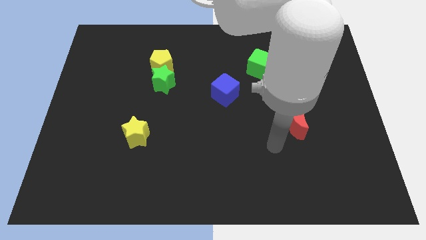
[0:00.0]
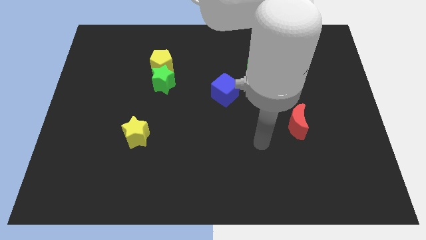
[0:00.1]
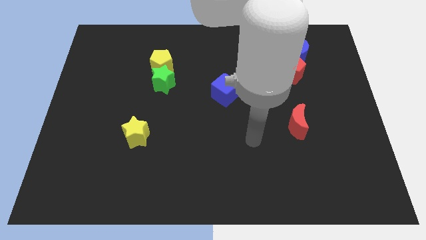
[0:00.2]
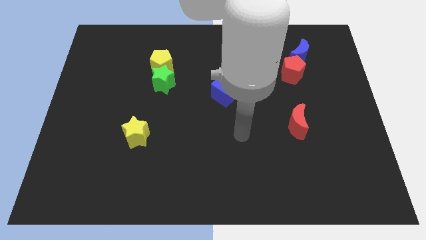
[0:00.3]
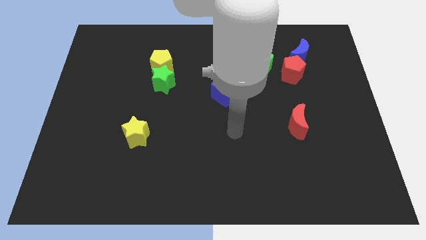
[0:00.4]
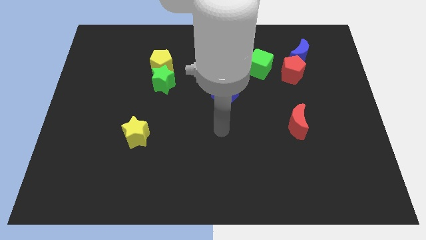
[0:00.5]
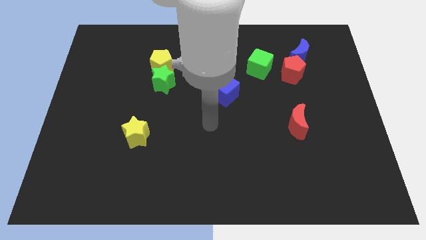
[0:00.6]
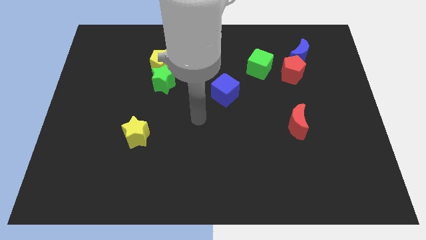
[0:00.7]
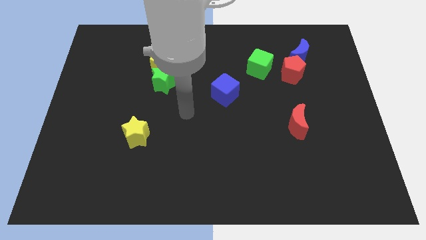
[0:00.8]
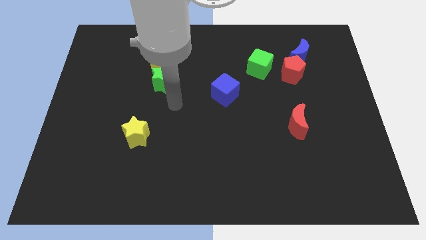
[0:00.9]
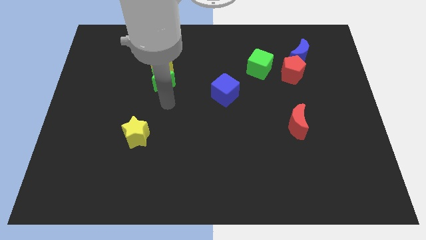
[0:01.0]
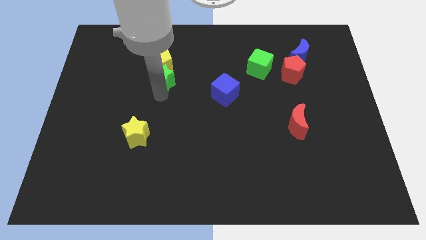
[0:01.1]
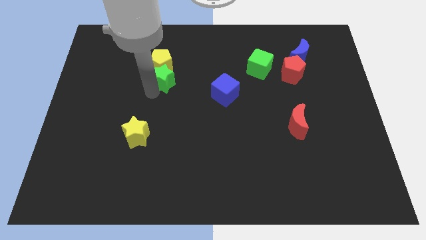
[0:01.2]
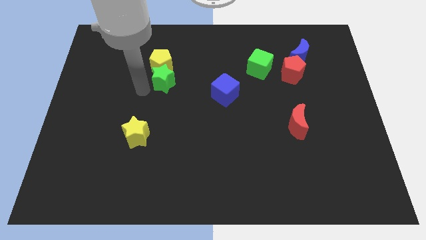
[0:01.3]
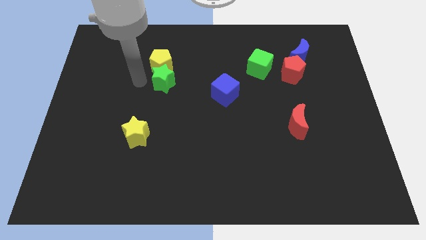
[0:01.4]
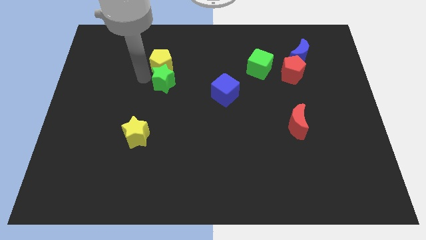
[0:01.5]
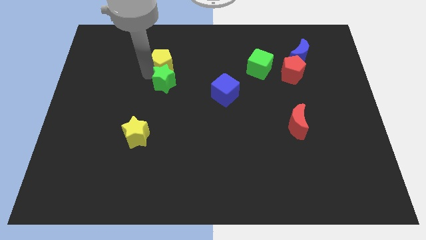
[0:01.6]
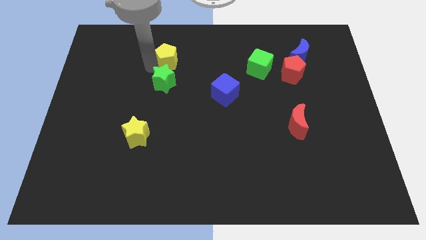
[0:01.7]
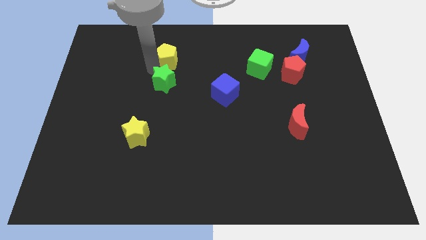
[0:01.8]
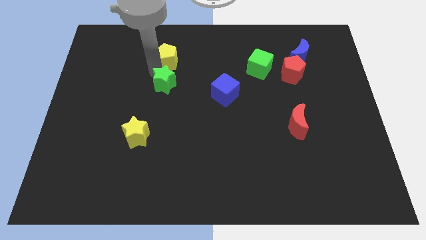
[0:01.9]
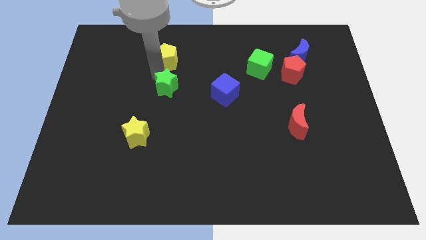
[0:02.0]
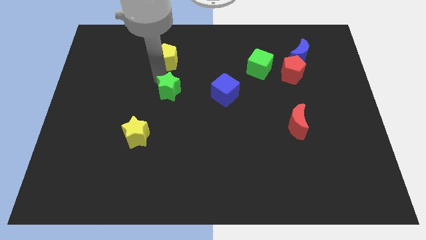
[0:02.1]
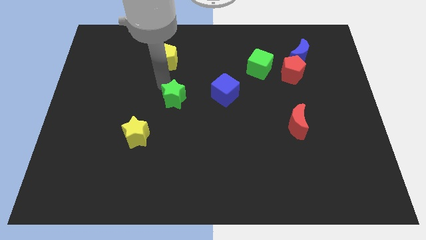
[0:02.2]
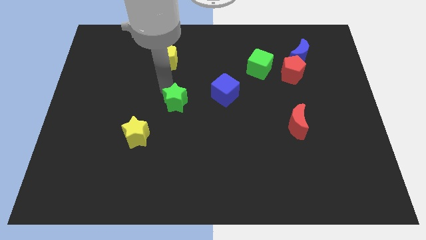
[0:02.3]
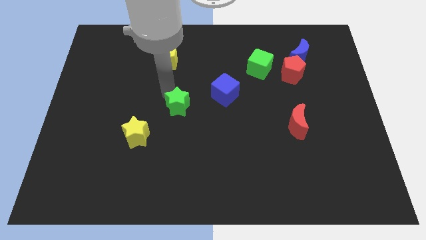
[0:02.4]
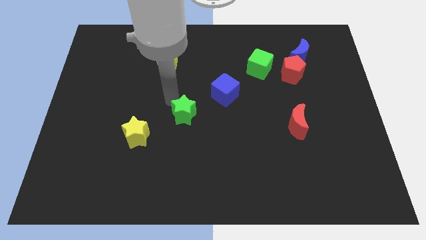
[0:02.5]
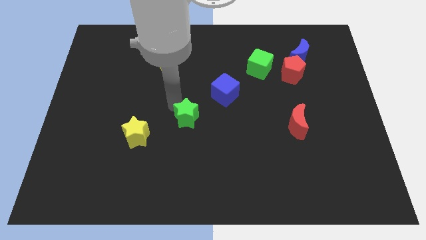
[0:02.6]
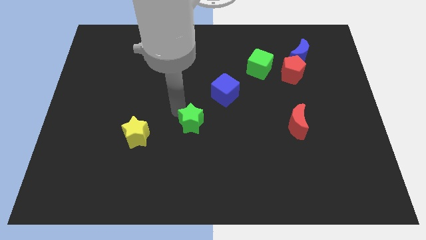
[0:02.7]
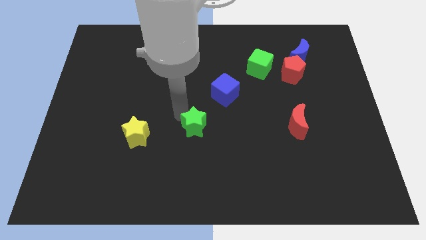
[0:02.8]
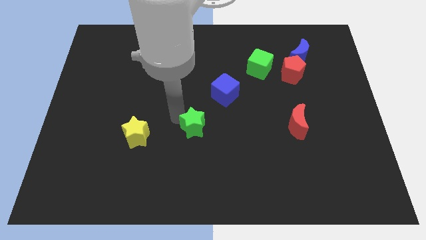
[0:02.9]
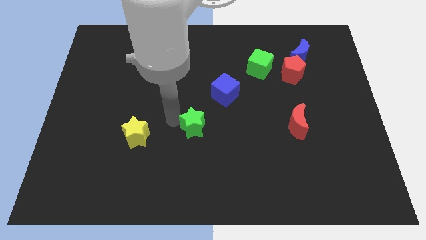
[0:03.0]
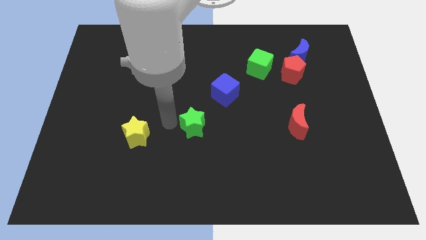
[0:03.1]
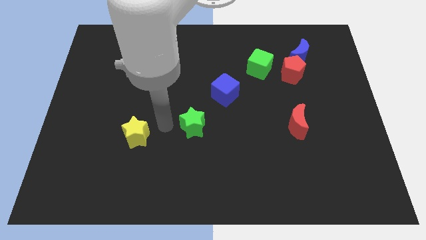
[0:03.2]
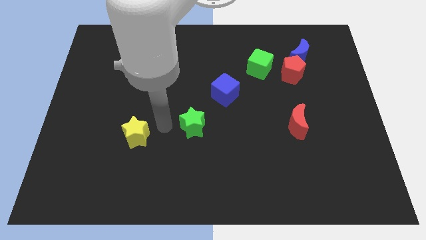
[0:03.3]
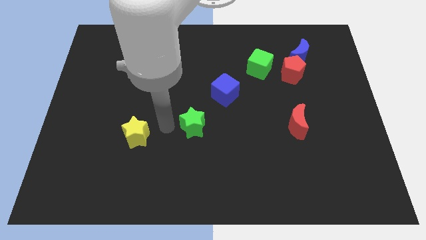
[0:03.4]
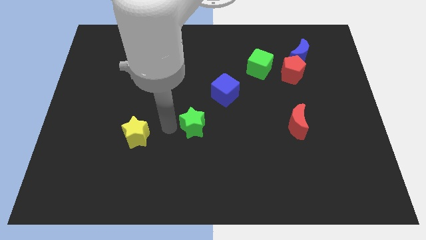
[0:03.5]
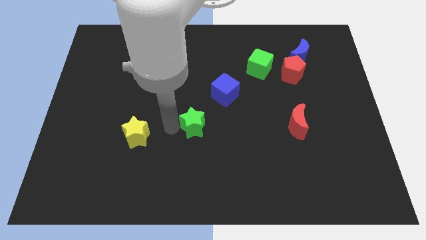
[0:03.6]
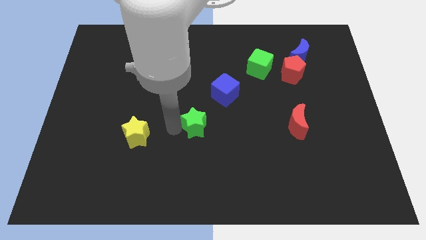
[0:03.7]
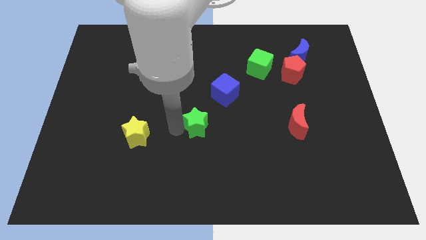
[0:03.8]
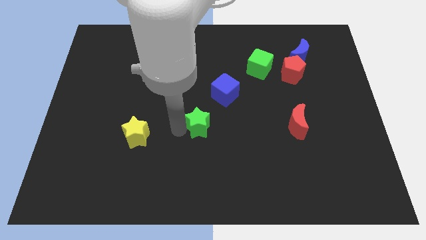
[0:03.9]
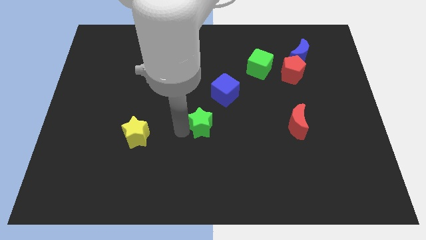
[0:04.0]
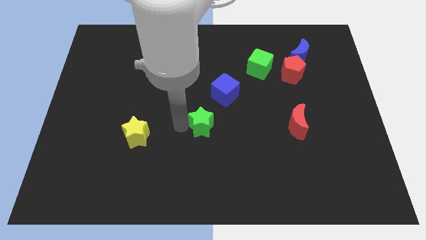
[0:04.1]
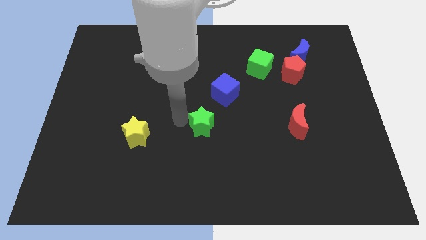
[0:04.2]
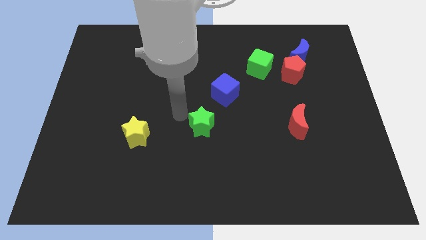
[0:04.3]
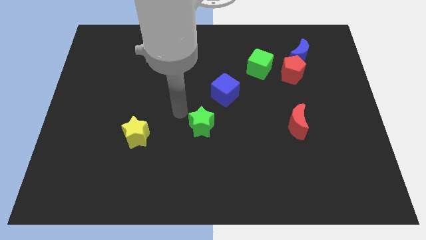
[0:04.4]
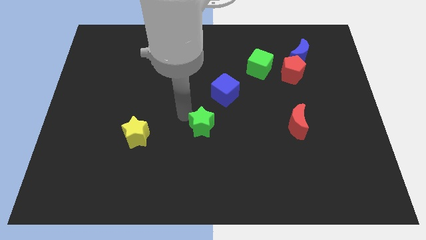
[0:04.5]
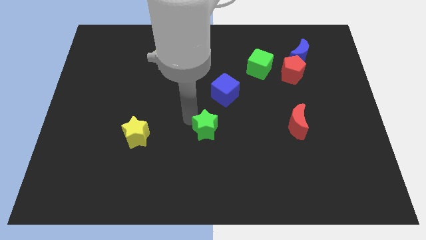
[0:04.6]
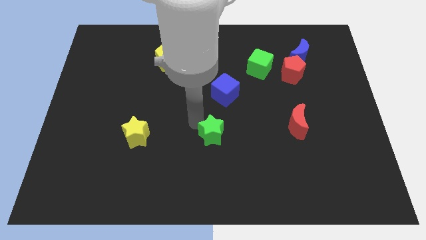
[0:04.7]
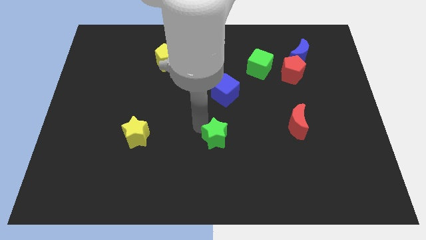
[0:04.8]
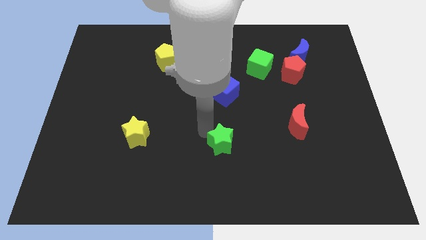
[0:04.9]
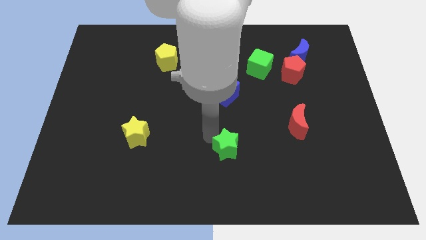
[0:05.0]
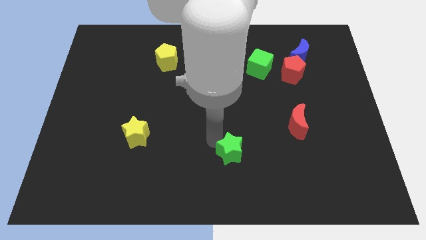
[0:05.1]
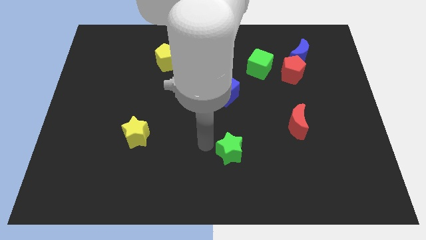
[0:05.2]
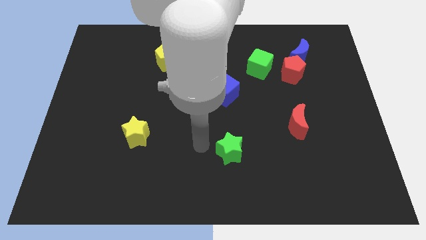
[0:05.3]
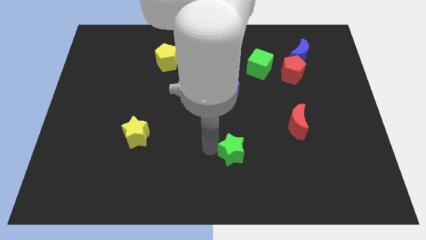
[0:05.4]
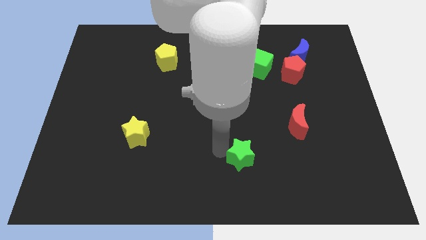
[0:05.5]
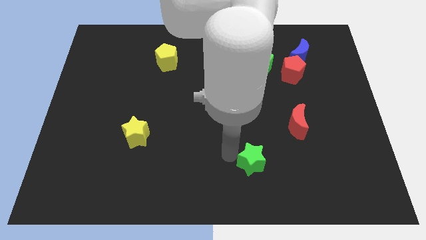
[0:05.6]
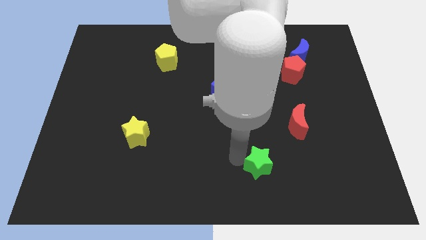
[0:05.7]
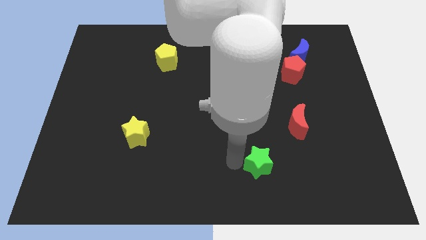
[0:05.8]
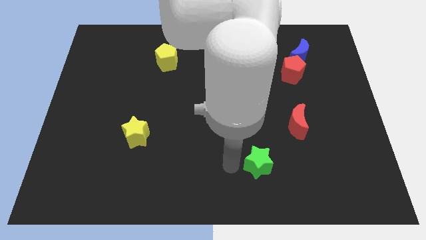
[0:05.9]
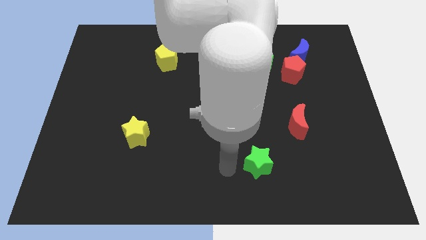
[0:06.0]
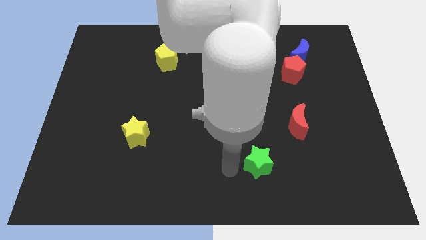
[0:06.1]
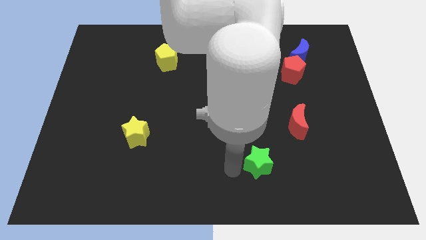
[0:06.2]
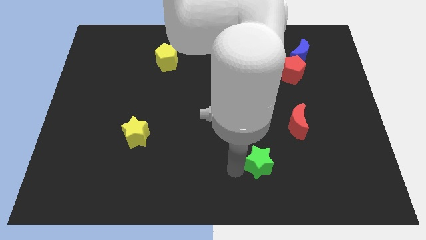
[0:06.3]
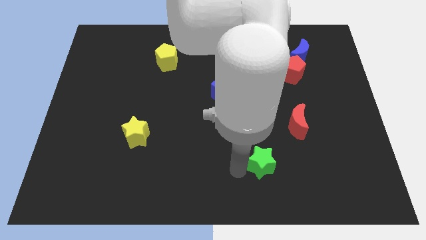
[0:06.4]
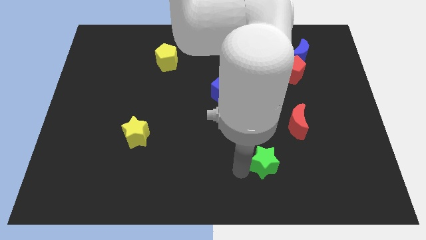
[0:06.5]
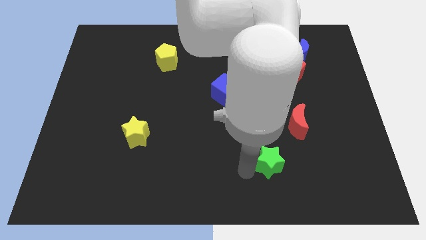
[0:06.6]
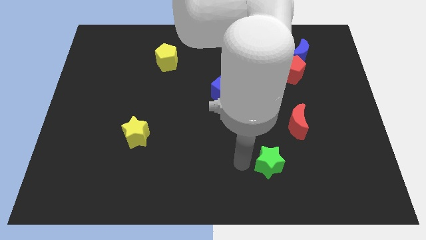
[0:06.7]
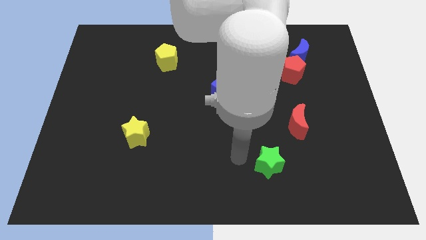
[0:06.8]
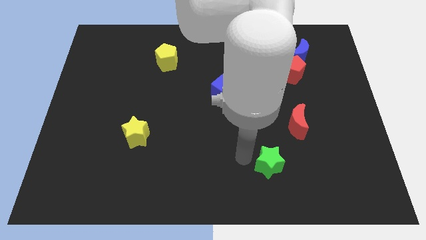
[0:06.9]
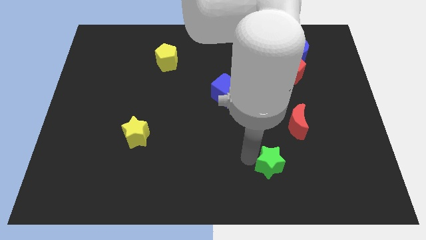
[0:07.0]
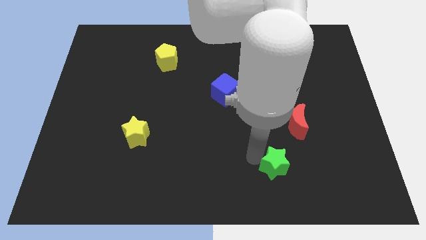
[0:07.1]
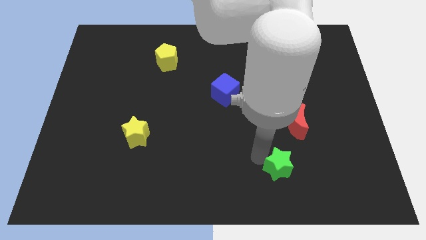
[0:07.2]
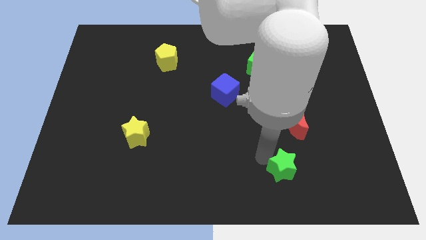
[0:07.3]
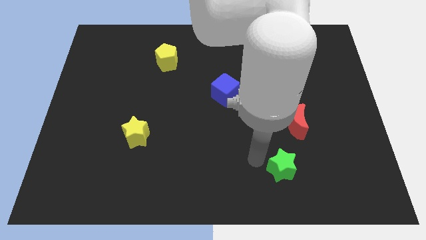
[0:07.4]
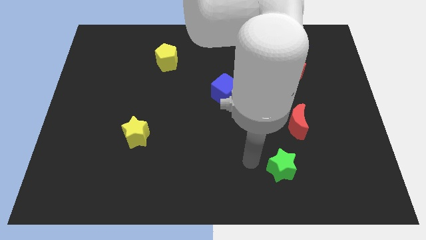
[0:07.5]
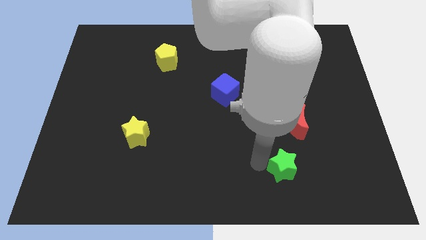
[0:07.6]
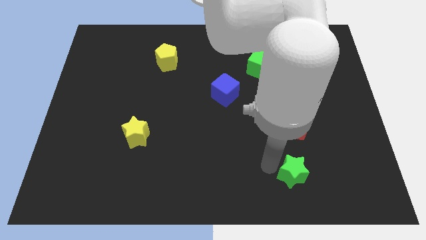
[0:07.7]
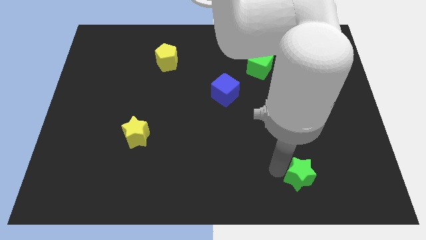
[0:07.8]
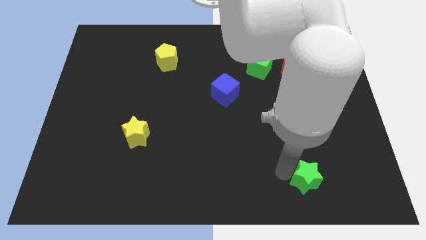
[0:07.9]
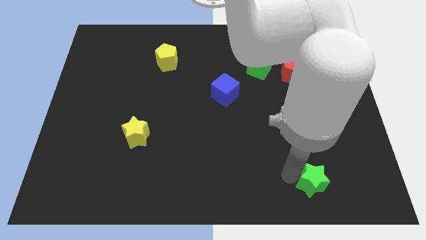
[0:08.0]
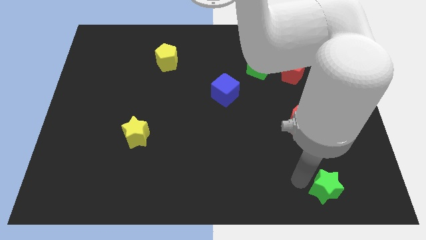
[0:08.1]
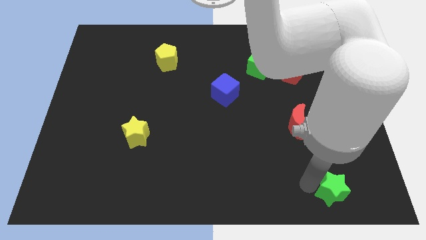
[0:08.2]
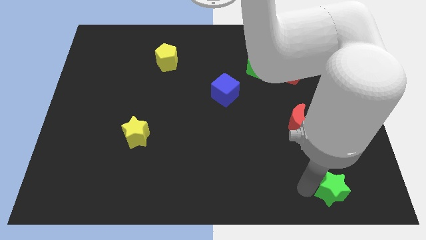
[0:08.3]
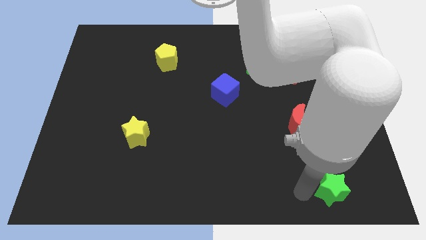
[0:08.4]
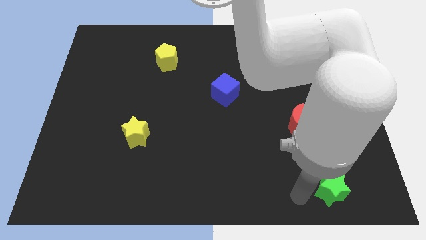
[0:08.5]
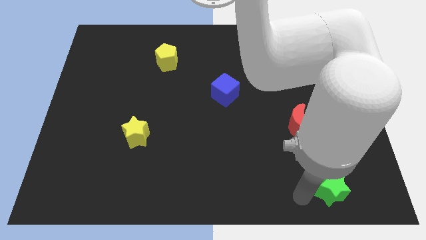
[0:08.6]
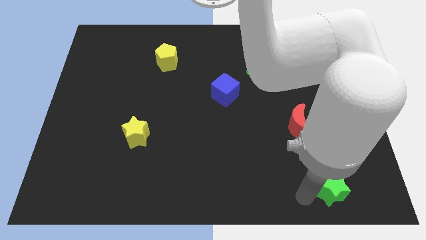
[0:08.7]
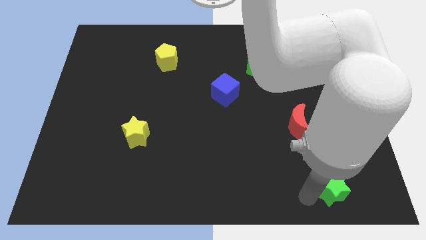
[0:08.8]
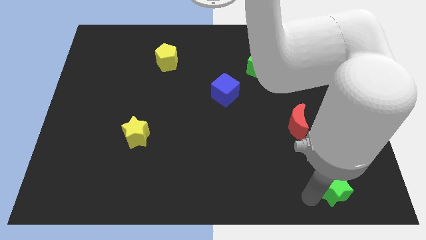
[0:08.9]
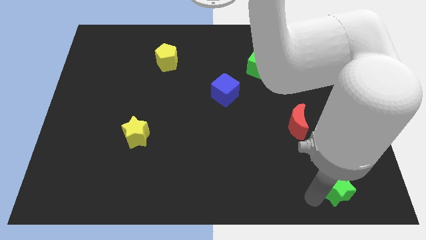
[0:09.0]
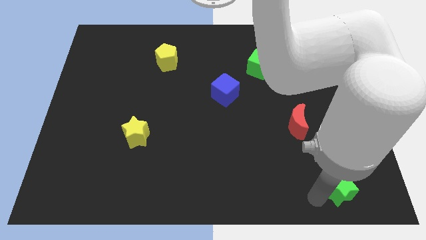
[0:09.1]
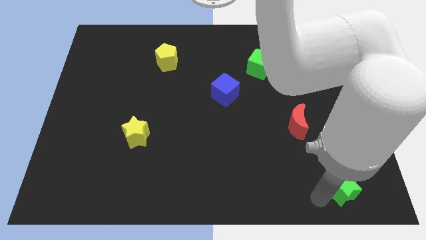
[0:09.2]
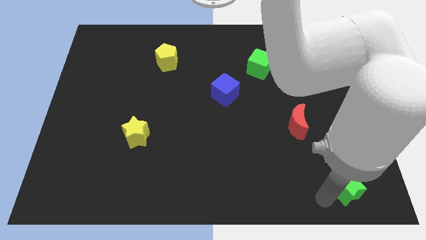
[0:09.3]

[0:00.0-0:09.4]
move the green star to the bottom right of the board
